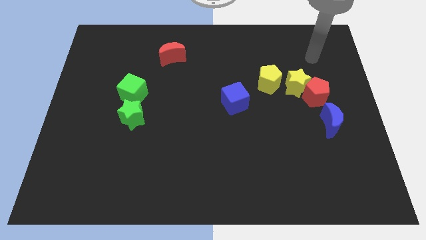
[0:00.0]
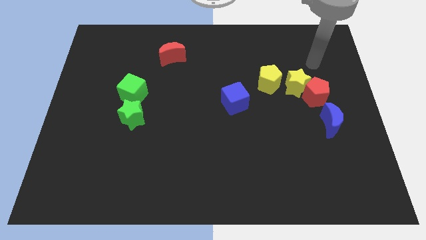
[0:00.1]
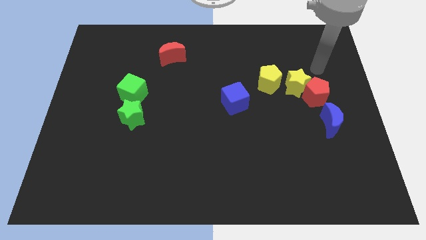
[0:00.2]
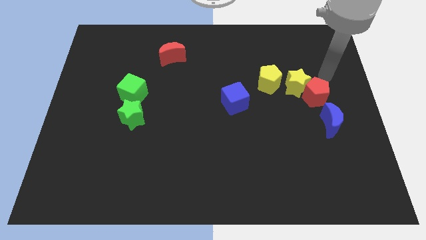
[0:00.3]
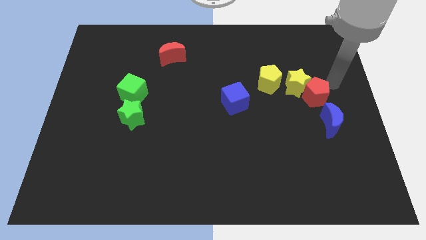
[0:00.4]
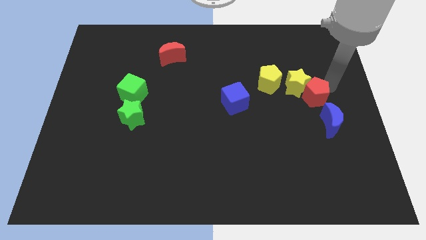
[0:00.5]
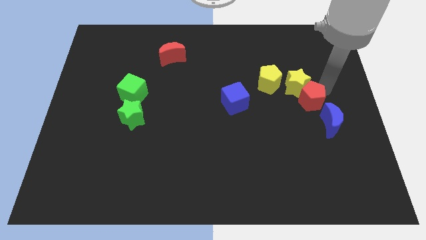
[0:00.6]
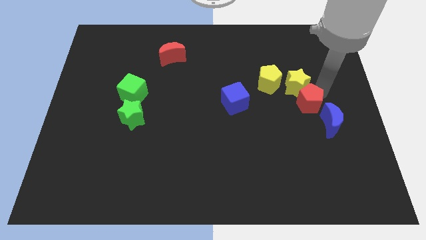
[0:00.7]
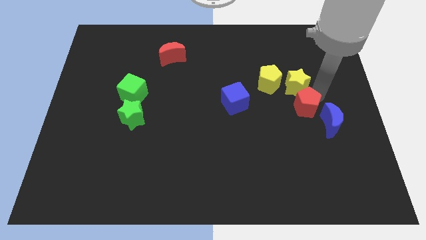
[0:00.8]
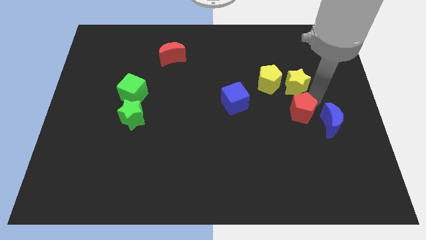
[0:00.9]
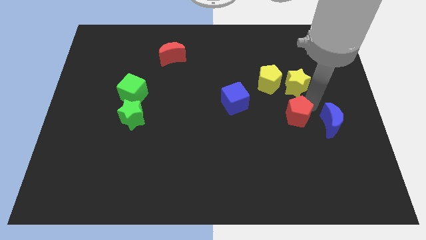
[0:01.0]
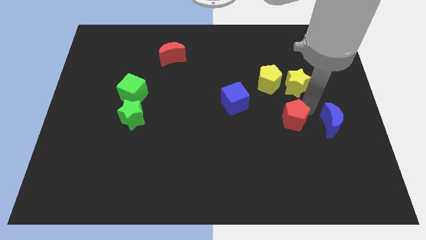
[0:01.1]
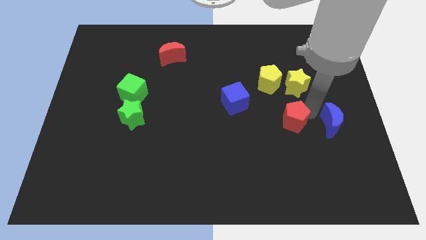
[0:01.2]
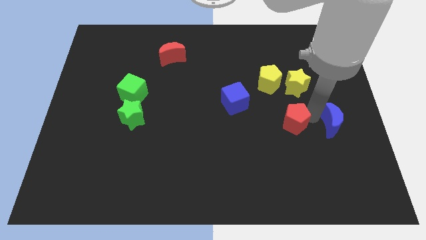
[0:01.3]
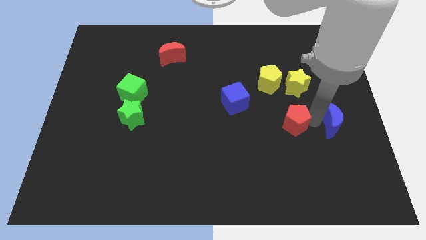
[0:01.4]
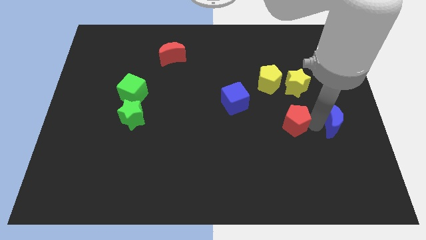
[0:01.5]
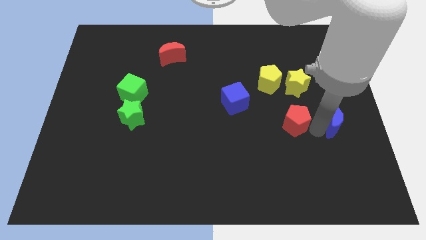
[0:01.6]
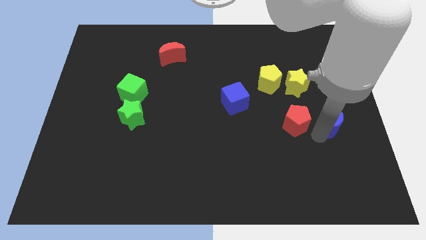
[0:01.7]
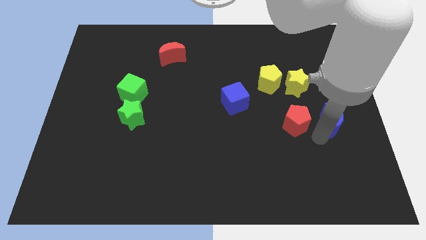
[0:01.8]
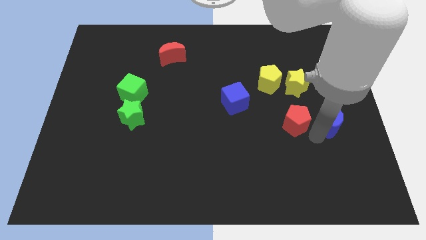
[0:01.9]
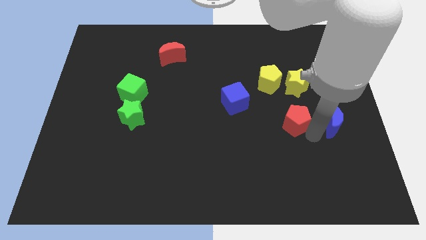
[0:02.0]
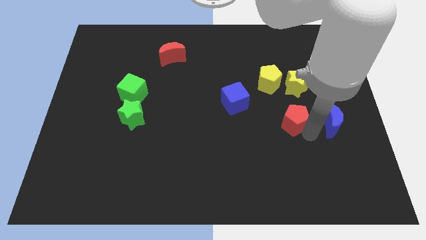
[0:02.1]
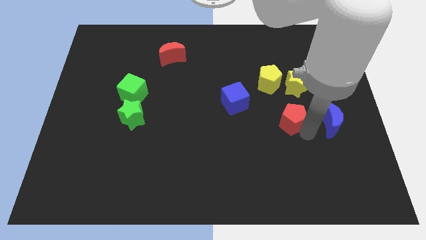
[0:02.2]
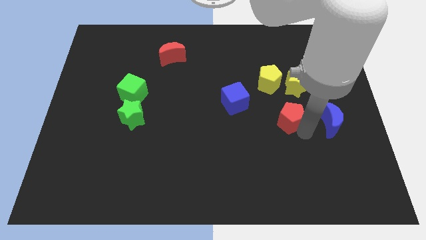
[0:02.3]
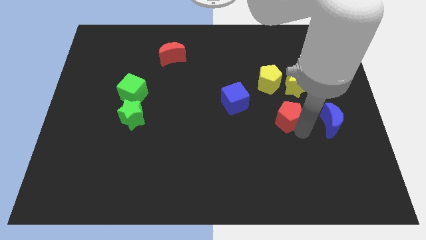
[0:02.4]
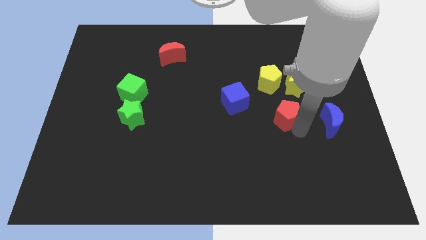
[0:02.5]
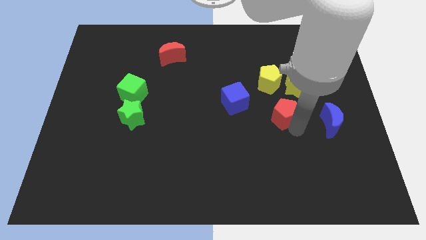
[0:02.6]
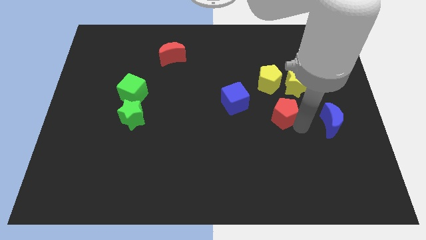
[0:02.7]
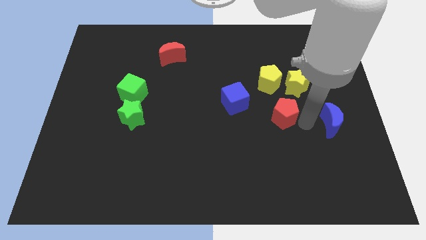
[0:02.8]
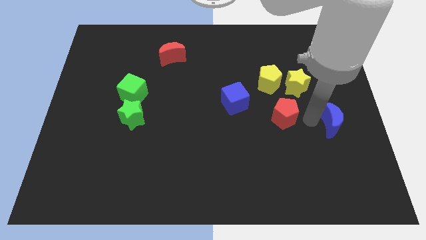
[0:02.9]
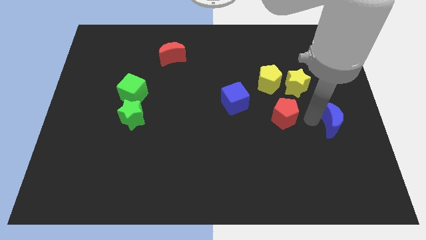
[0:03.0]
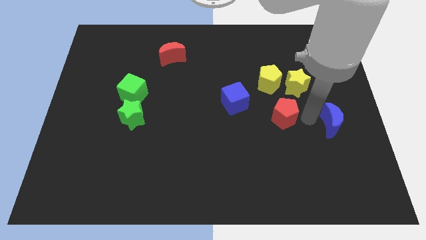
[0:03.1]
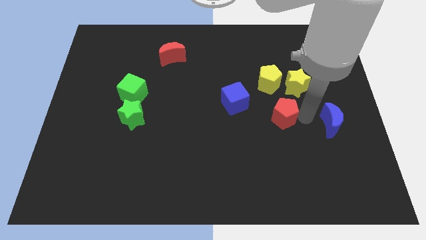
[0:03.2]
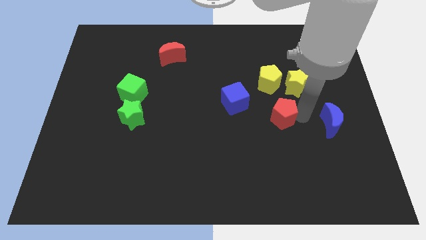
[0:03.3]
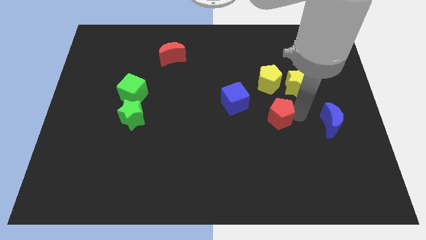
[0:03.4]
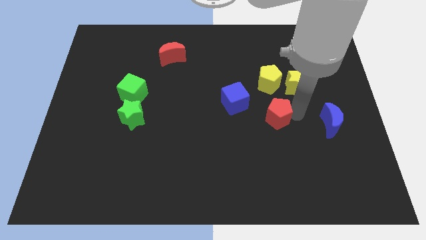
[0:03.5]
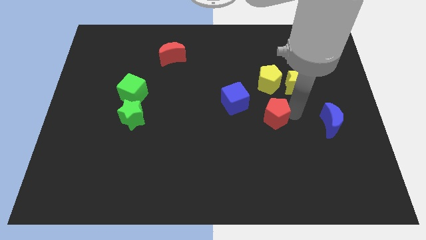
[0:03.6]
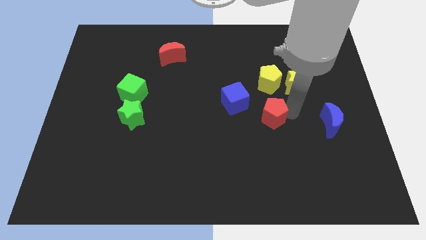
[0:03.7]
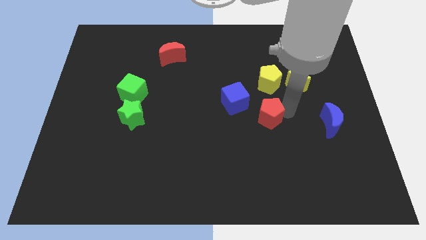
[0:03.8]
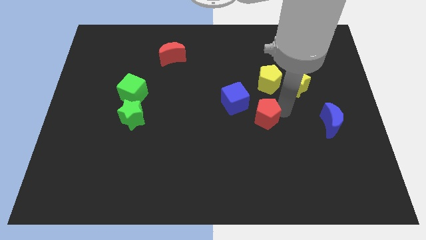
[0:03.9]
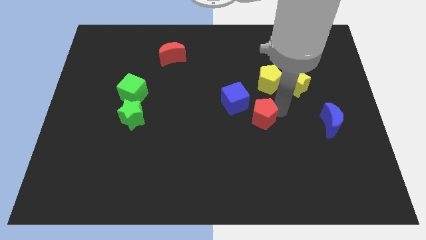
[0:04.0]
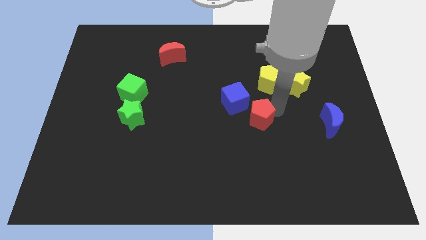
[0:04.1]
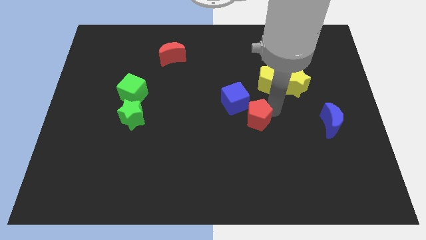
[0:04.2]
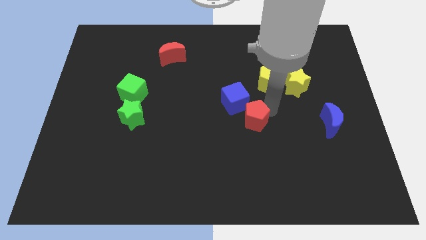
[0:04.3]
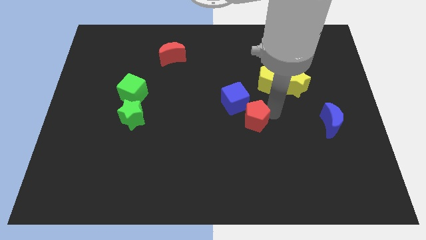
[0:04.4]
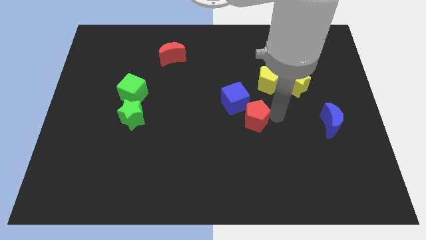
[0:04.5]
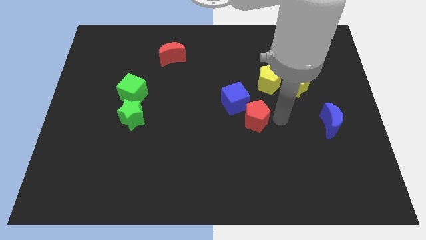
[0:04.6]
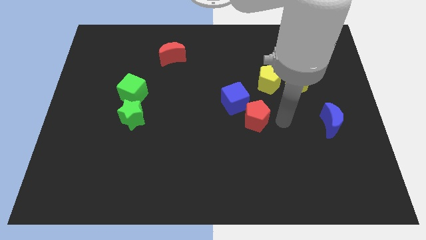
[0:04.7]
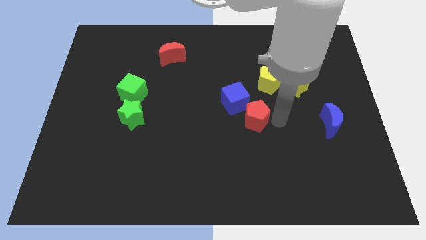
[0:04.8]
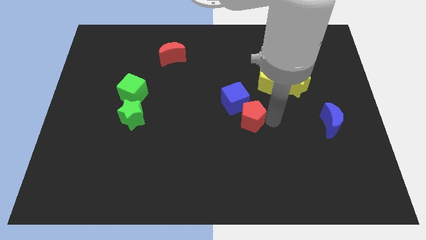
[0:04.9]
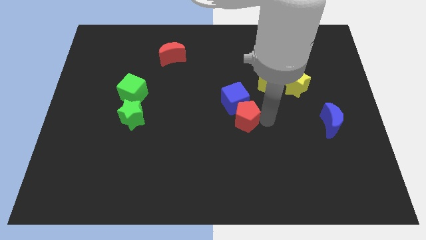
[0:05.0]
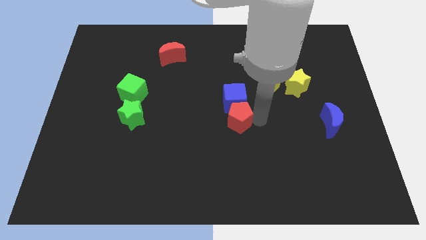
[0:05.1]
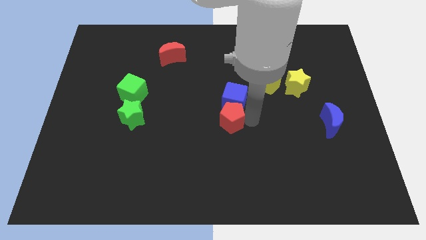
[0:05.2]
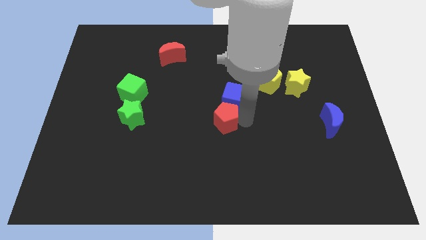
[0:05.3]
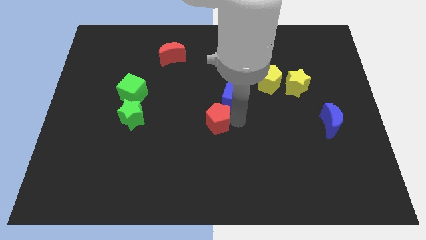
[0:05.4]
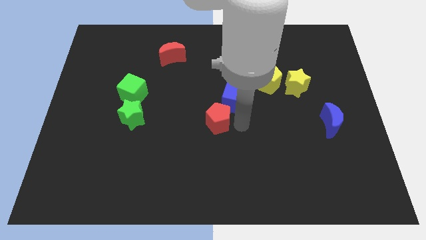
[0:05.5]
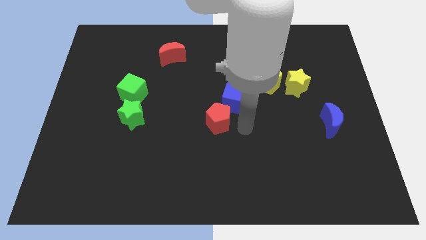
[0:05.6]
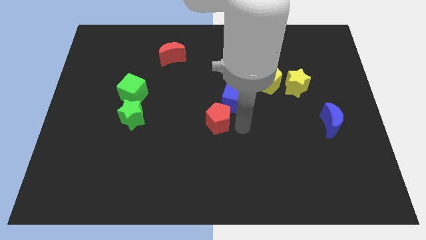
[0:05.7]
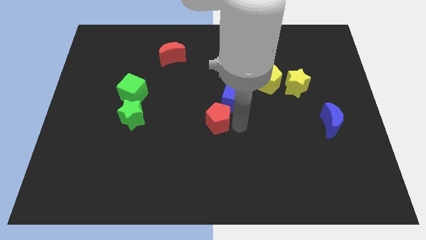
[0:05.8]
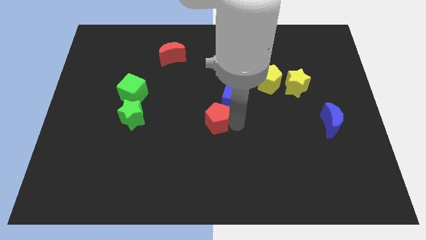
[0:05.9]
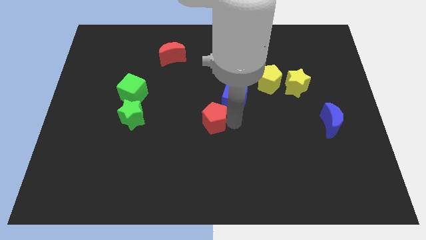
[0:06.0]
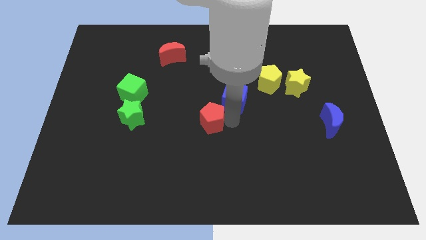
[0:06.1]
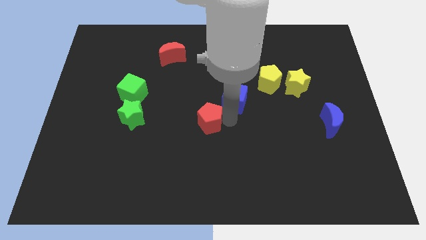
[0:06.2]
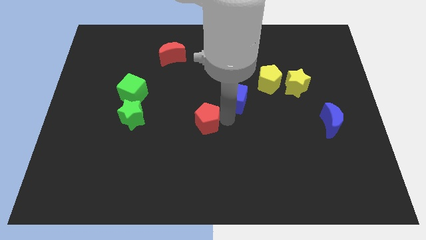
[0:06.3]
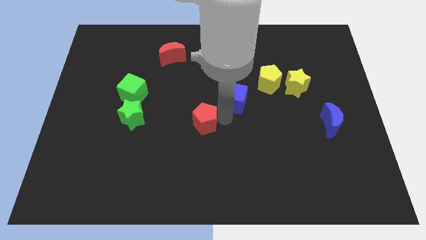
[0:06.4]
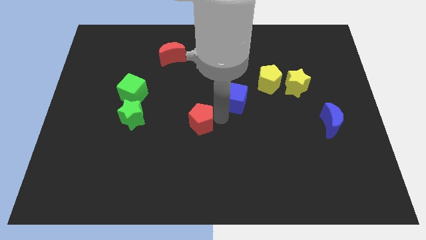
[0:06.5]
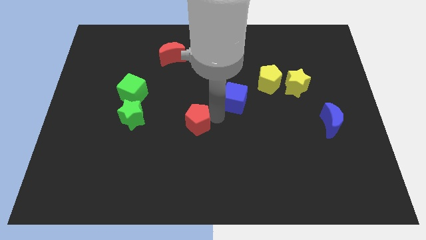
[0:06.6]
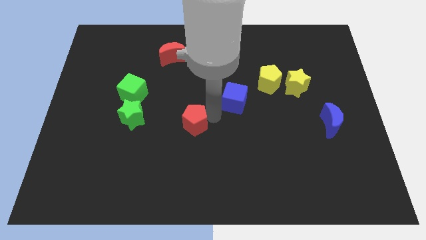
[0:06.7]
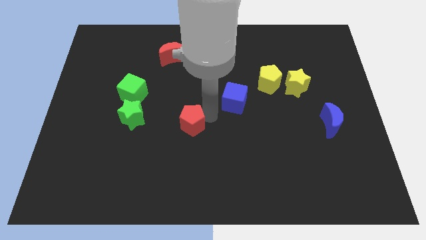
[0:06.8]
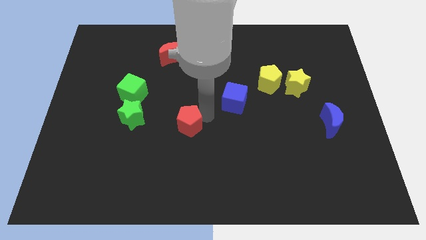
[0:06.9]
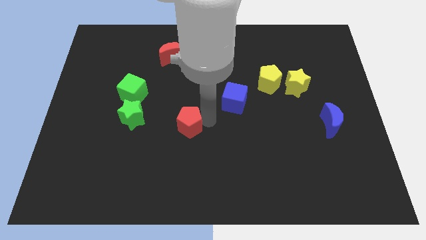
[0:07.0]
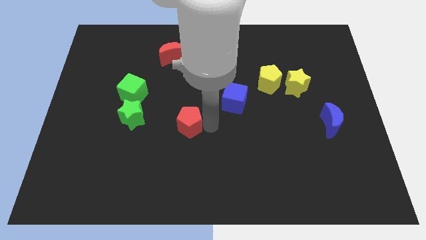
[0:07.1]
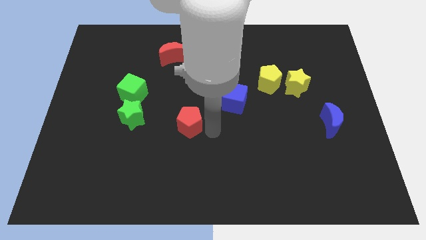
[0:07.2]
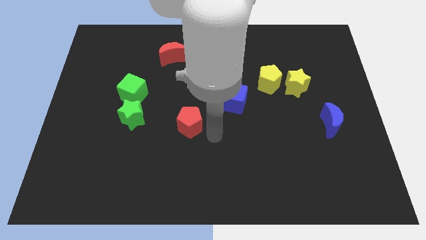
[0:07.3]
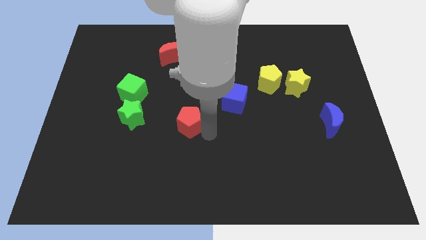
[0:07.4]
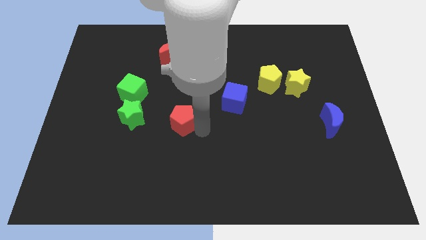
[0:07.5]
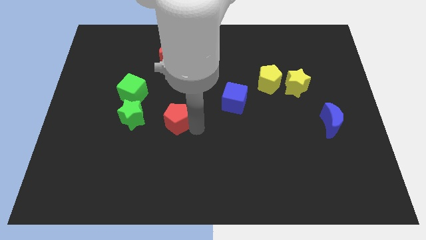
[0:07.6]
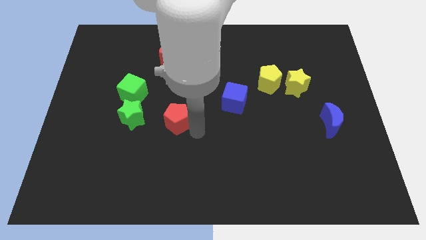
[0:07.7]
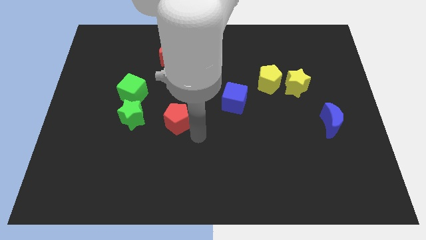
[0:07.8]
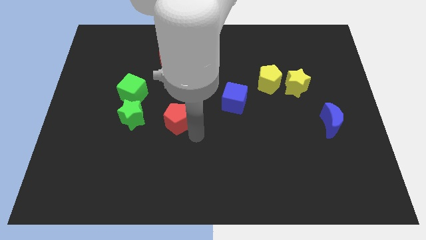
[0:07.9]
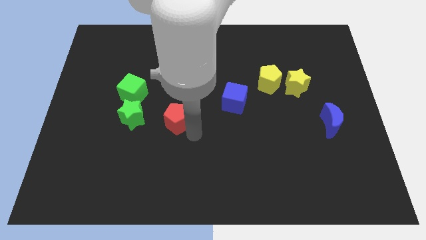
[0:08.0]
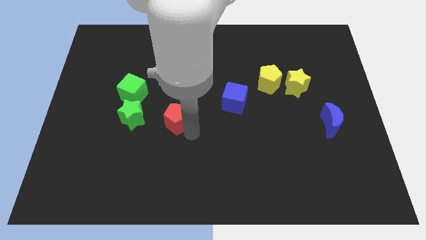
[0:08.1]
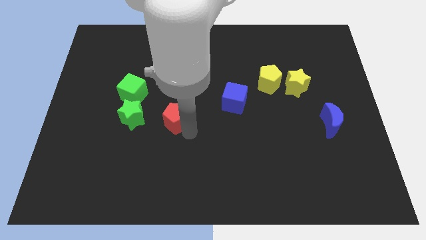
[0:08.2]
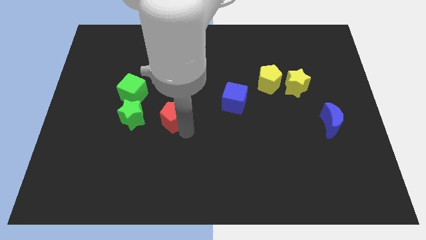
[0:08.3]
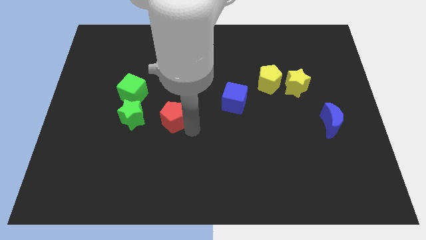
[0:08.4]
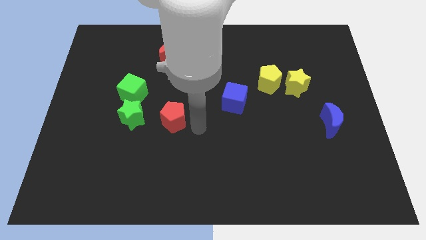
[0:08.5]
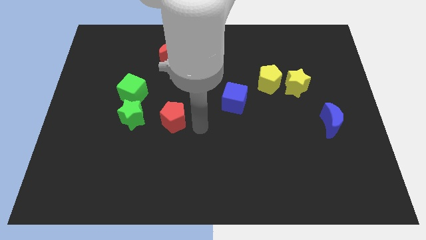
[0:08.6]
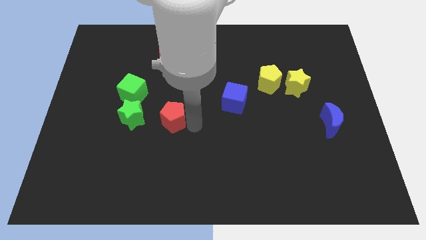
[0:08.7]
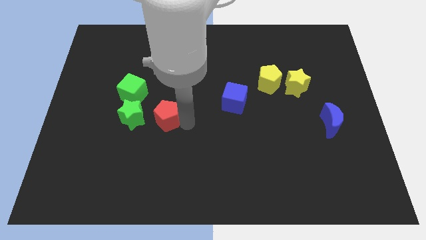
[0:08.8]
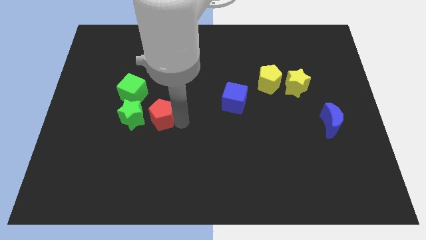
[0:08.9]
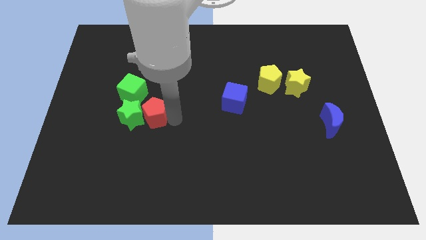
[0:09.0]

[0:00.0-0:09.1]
slide the red pentagon towards the green star
